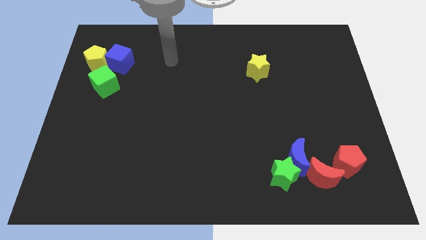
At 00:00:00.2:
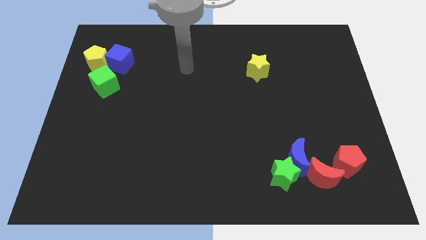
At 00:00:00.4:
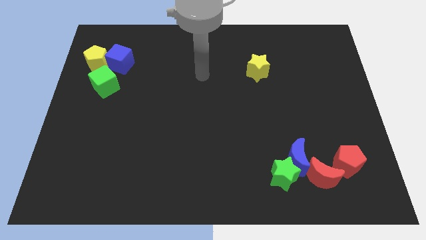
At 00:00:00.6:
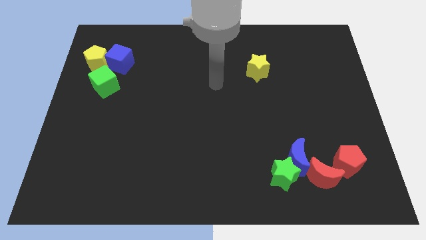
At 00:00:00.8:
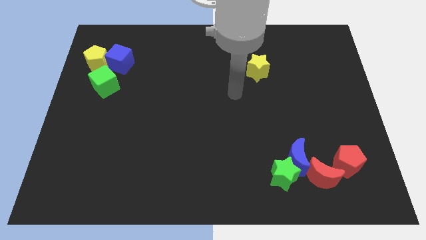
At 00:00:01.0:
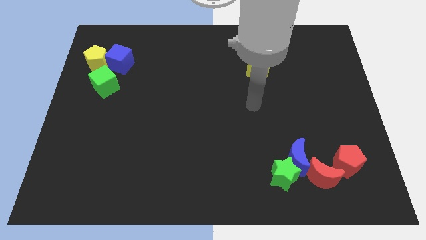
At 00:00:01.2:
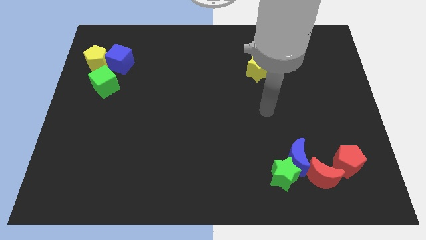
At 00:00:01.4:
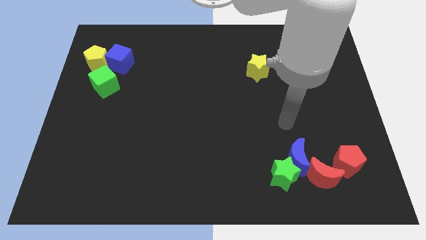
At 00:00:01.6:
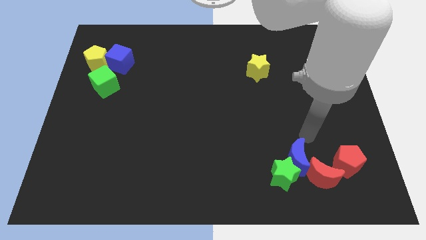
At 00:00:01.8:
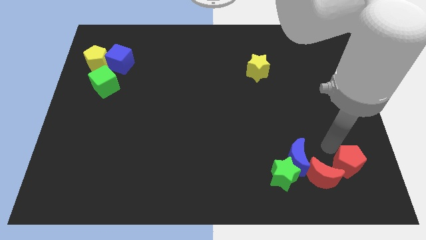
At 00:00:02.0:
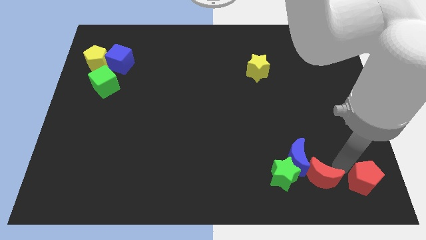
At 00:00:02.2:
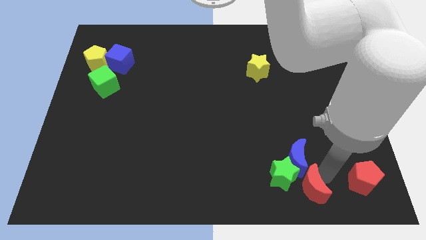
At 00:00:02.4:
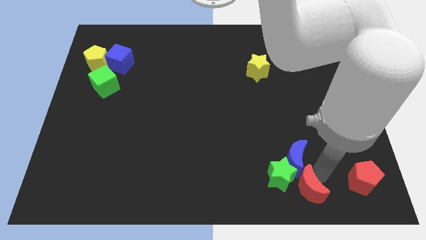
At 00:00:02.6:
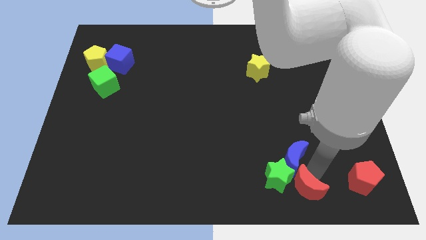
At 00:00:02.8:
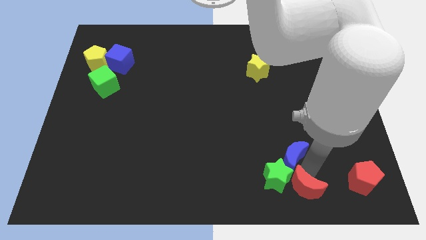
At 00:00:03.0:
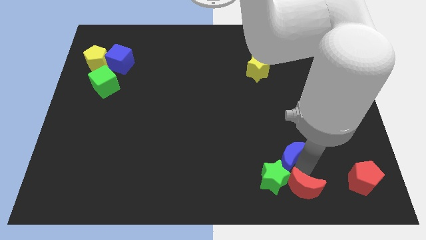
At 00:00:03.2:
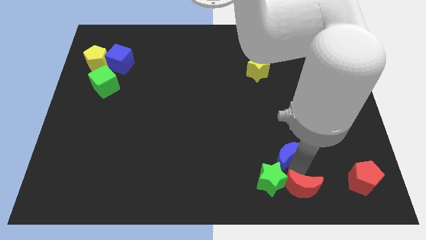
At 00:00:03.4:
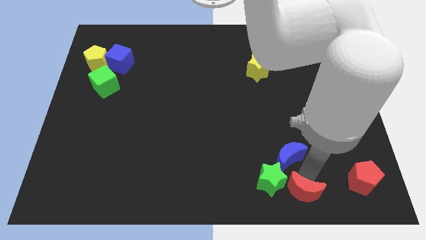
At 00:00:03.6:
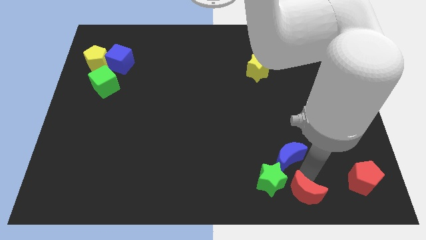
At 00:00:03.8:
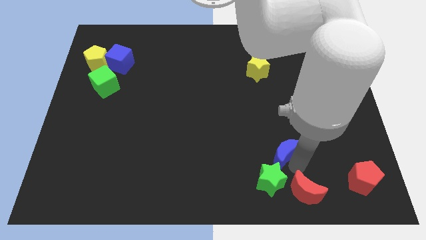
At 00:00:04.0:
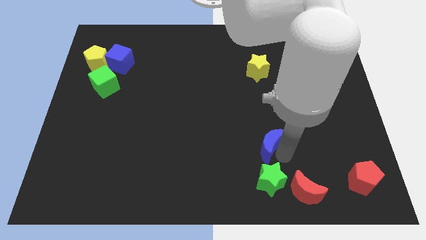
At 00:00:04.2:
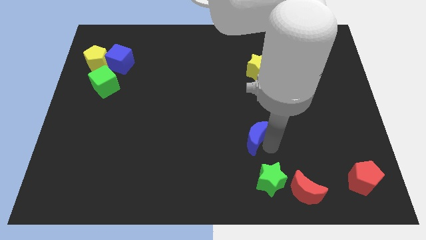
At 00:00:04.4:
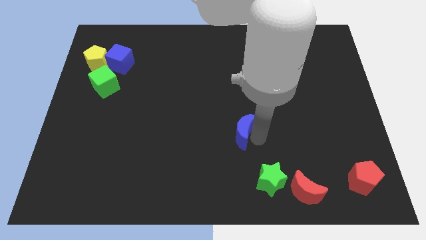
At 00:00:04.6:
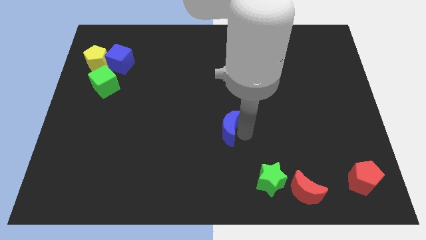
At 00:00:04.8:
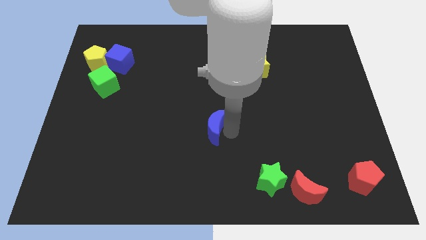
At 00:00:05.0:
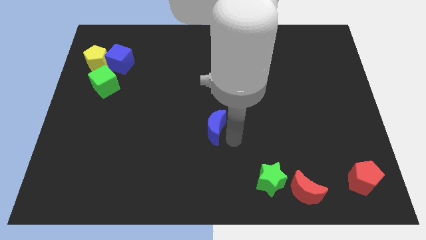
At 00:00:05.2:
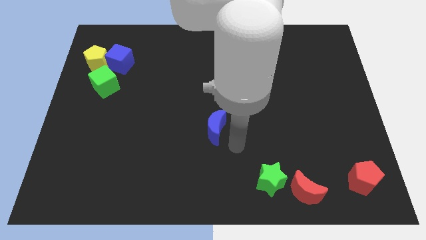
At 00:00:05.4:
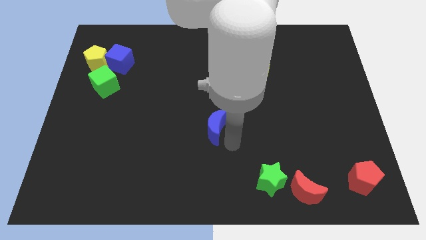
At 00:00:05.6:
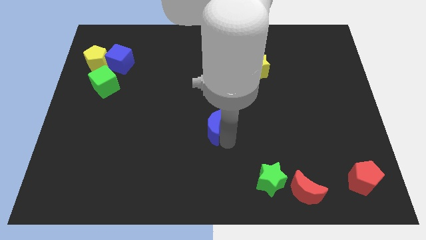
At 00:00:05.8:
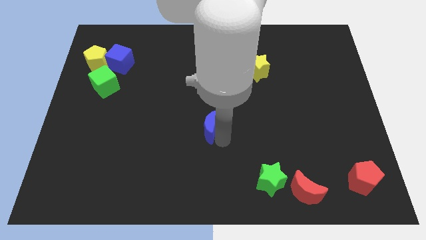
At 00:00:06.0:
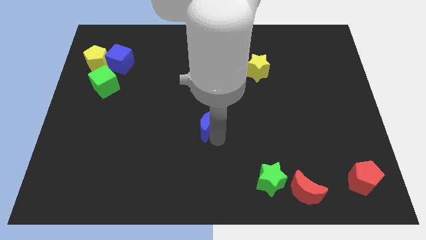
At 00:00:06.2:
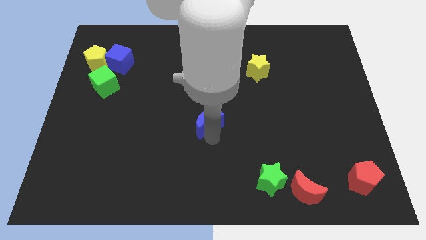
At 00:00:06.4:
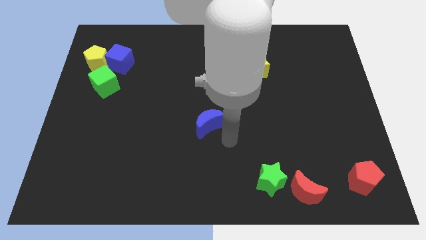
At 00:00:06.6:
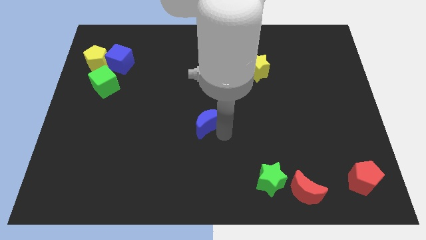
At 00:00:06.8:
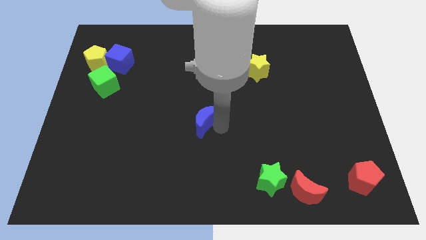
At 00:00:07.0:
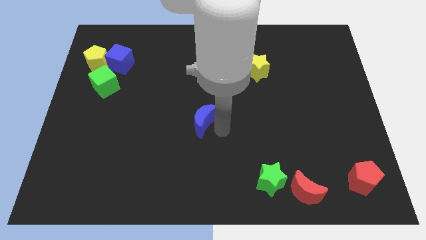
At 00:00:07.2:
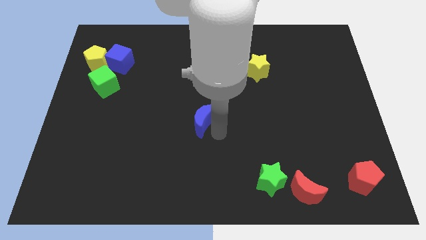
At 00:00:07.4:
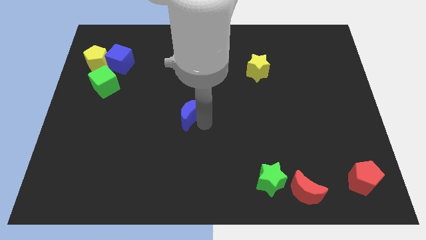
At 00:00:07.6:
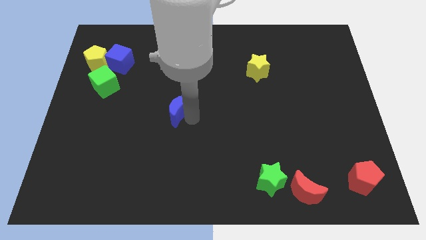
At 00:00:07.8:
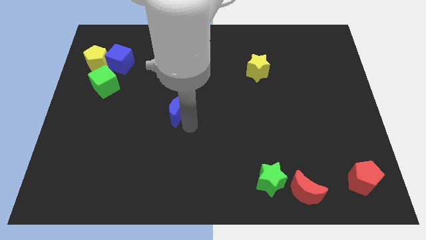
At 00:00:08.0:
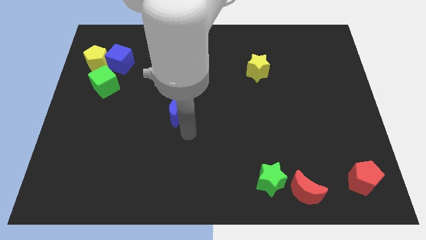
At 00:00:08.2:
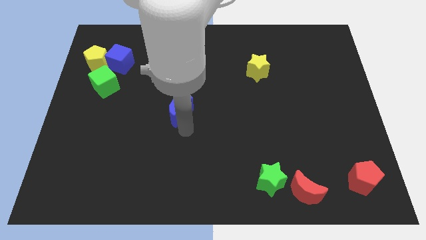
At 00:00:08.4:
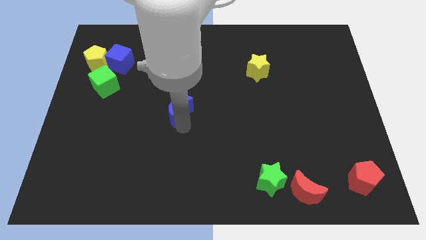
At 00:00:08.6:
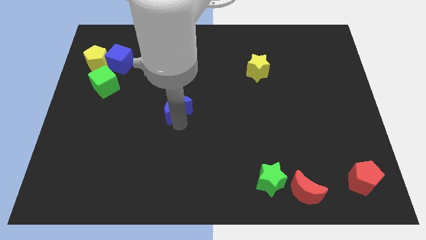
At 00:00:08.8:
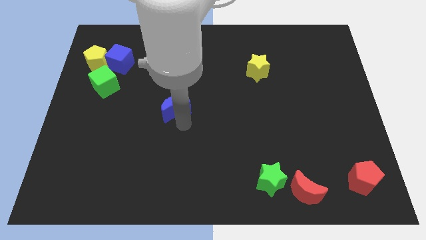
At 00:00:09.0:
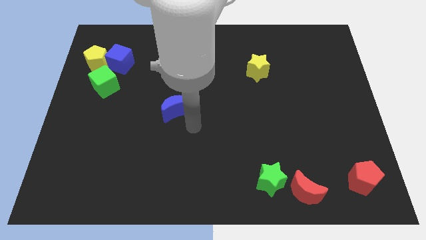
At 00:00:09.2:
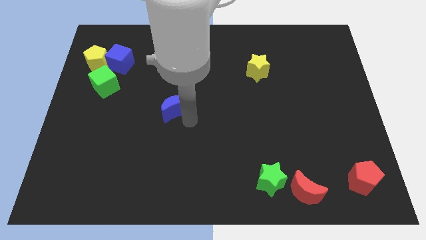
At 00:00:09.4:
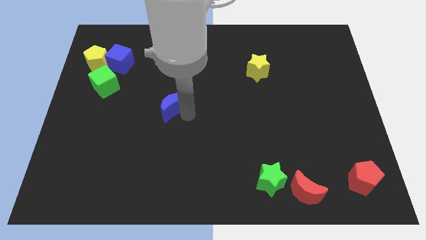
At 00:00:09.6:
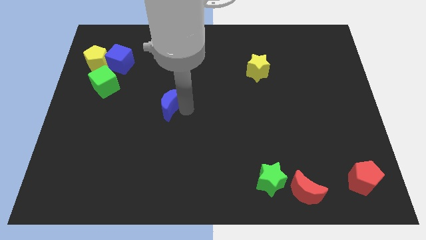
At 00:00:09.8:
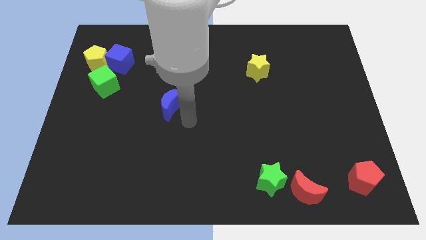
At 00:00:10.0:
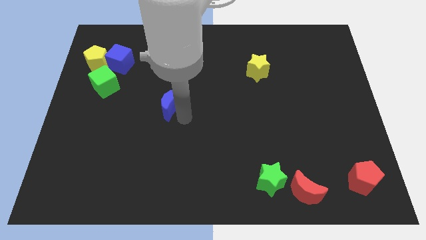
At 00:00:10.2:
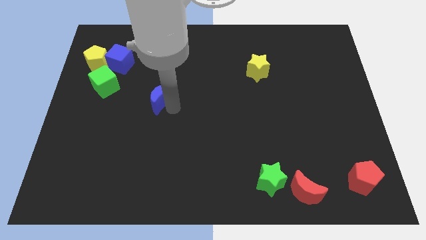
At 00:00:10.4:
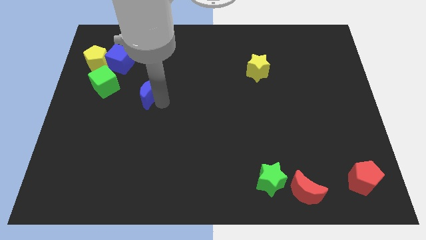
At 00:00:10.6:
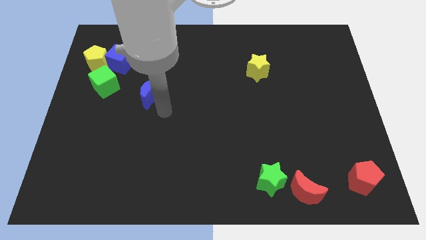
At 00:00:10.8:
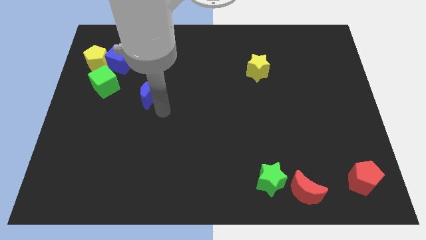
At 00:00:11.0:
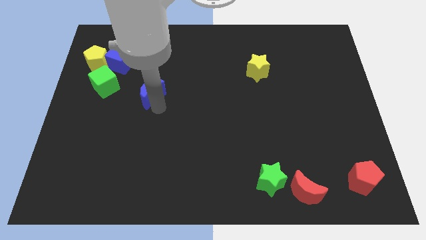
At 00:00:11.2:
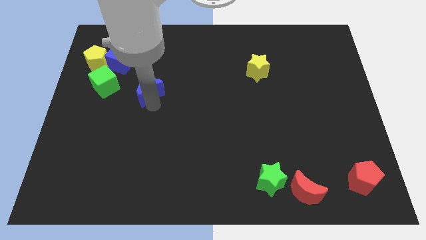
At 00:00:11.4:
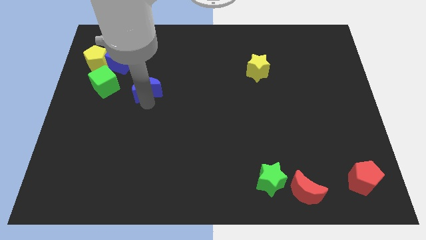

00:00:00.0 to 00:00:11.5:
slide the blue moon to the bottom right of the blue cube

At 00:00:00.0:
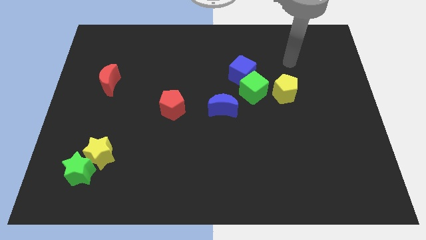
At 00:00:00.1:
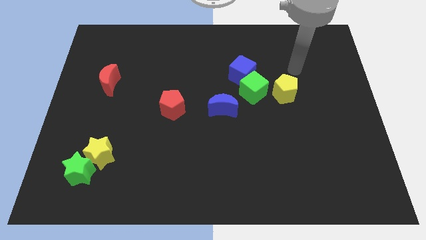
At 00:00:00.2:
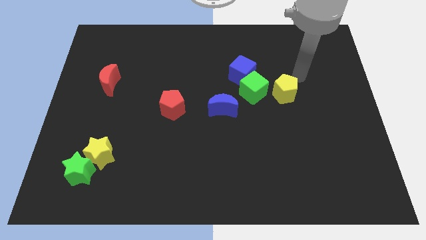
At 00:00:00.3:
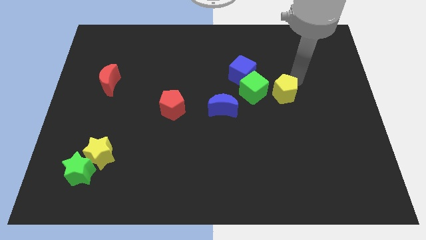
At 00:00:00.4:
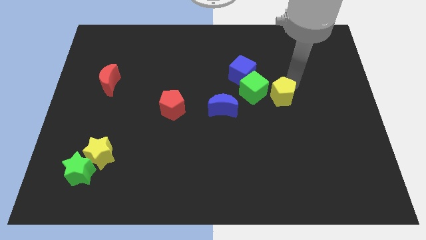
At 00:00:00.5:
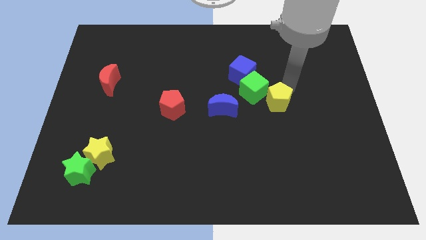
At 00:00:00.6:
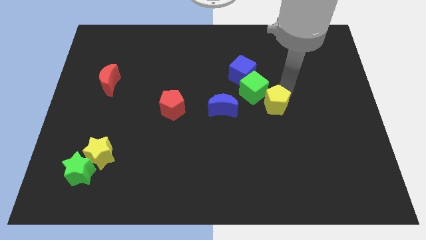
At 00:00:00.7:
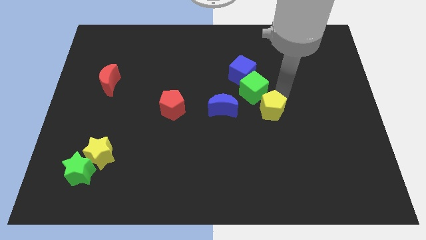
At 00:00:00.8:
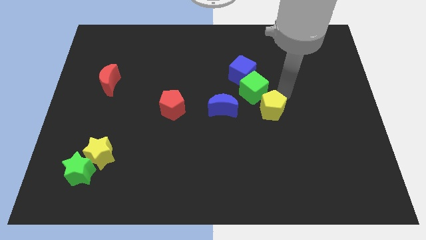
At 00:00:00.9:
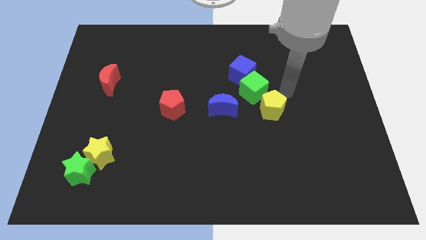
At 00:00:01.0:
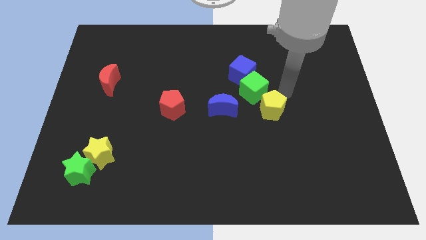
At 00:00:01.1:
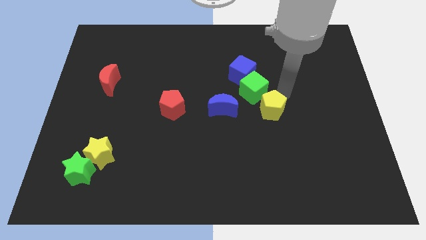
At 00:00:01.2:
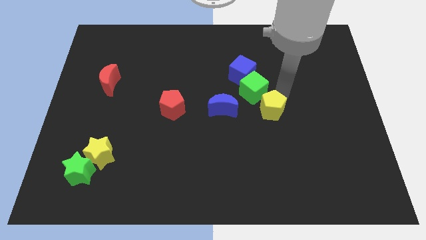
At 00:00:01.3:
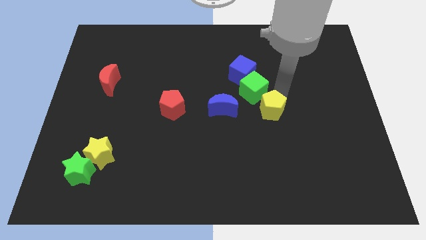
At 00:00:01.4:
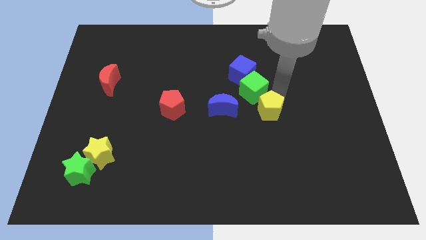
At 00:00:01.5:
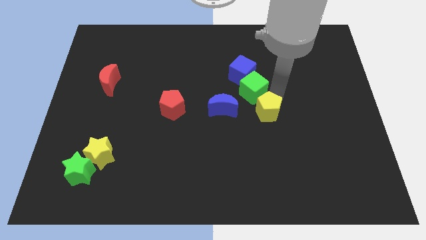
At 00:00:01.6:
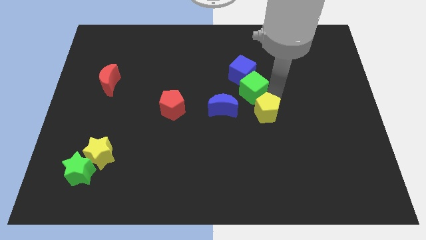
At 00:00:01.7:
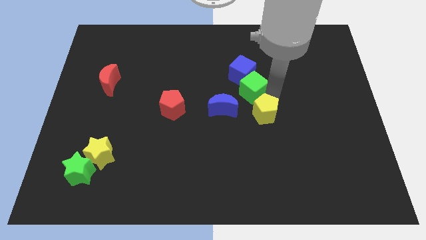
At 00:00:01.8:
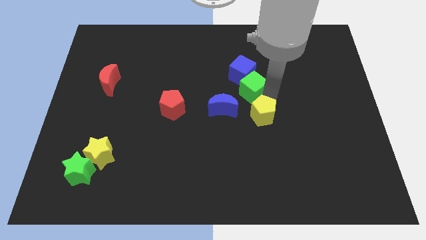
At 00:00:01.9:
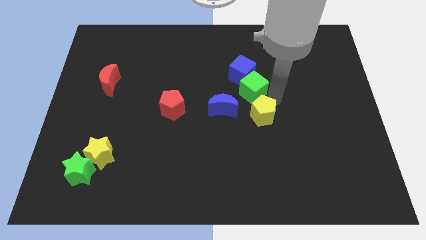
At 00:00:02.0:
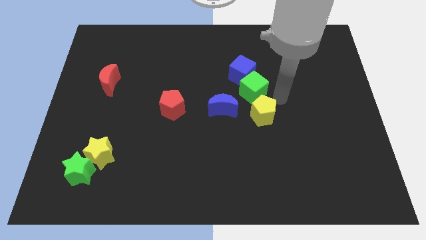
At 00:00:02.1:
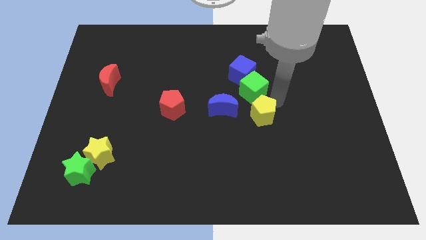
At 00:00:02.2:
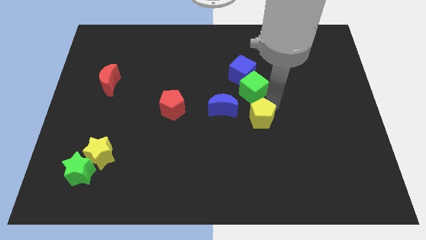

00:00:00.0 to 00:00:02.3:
push the yellow pentagon diagonally down and to the right of the blue moon
